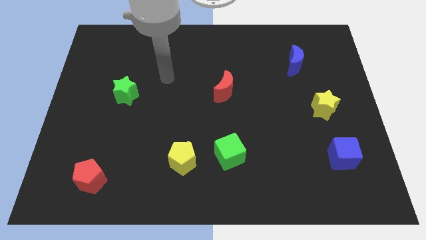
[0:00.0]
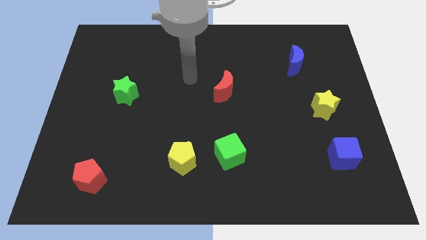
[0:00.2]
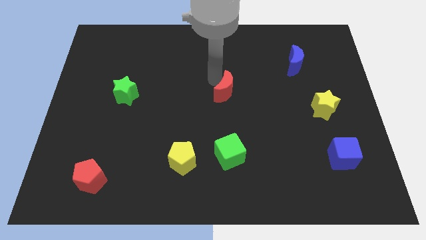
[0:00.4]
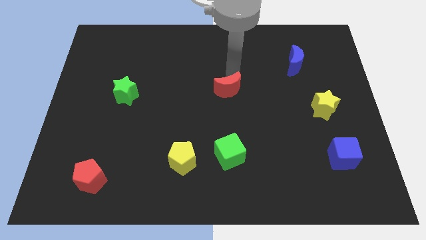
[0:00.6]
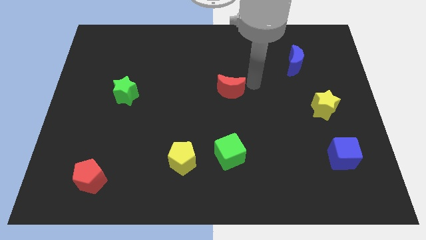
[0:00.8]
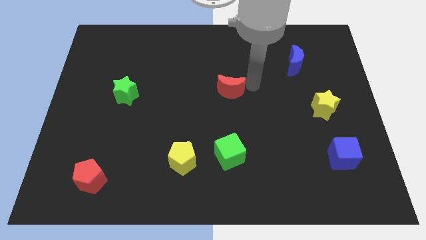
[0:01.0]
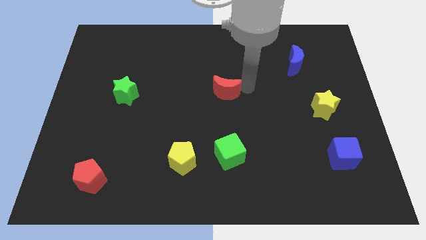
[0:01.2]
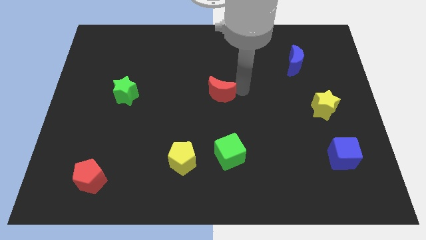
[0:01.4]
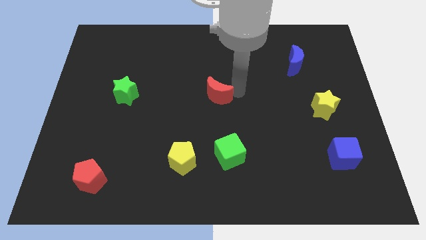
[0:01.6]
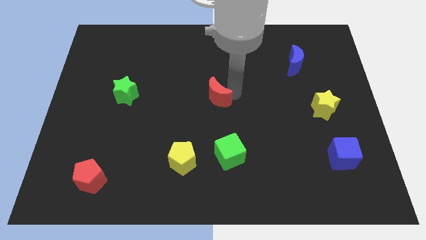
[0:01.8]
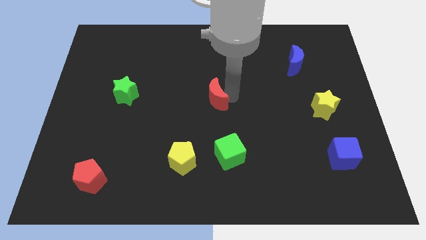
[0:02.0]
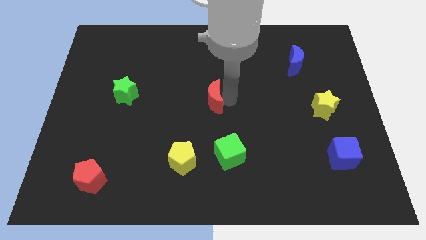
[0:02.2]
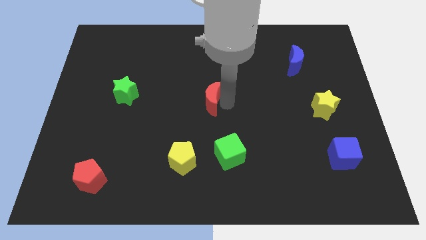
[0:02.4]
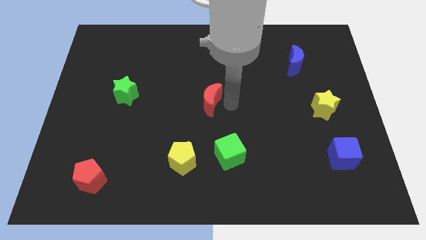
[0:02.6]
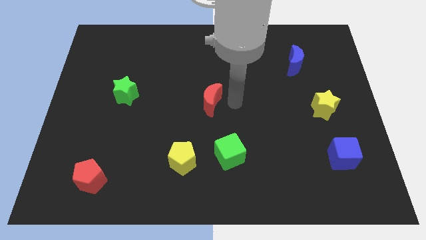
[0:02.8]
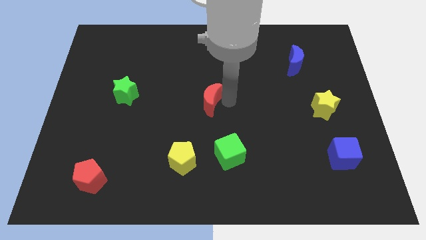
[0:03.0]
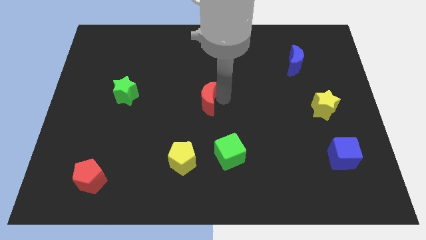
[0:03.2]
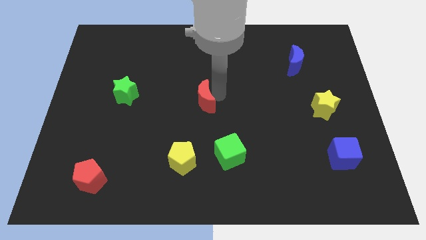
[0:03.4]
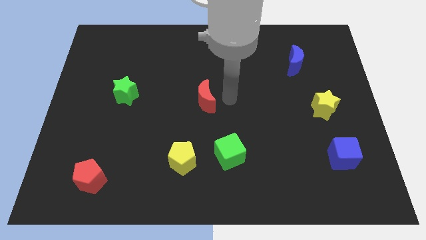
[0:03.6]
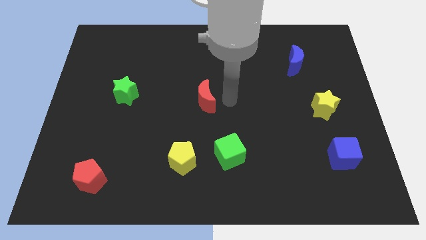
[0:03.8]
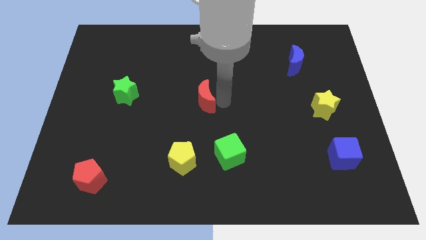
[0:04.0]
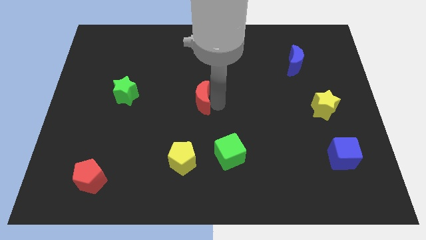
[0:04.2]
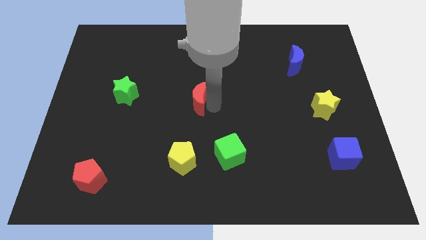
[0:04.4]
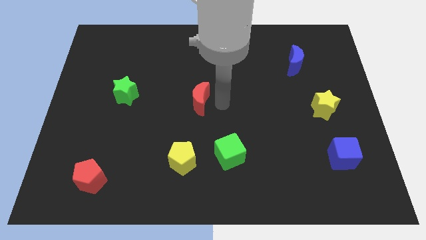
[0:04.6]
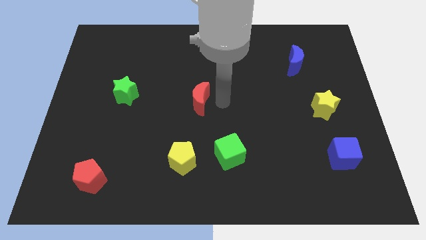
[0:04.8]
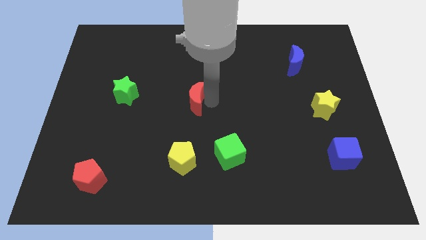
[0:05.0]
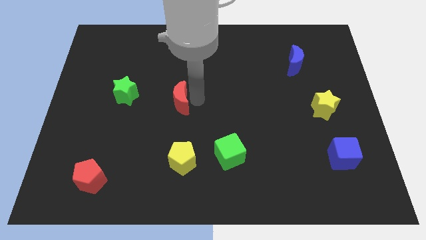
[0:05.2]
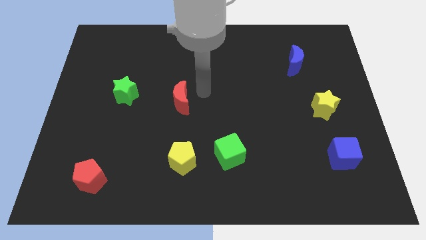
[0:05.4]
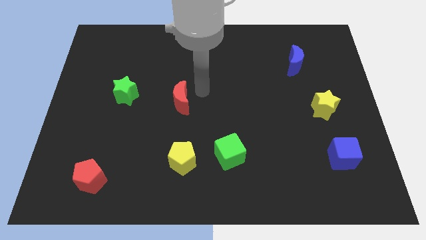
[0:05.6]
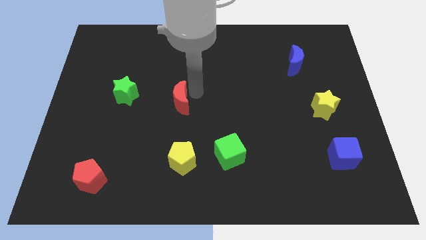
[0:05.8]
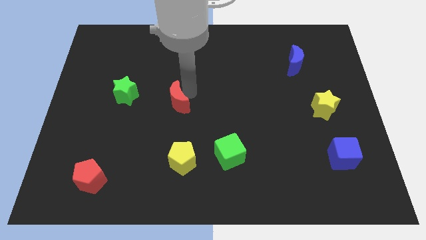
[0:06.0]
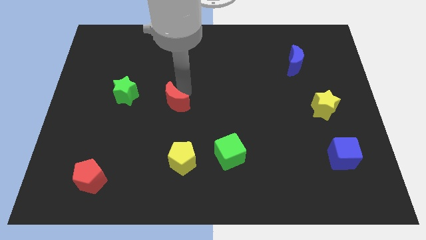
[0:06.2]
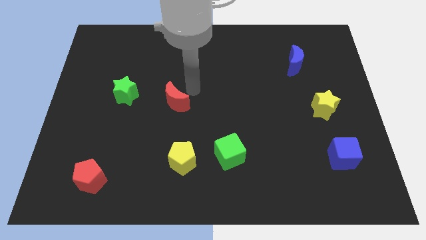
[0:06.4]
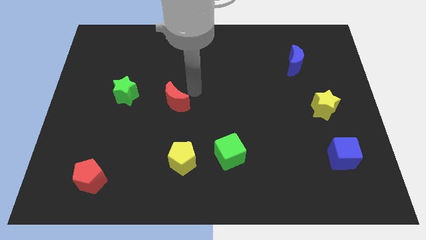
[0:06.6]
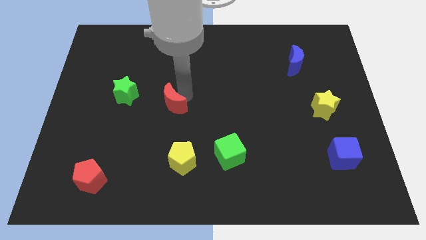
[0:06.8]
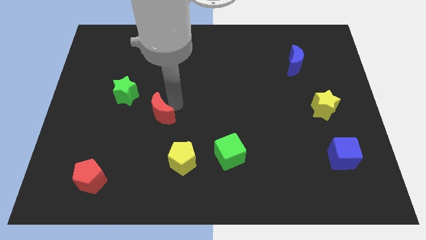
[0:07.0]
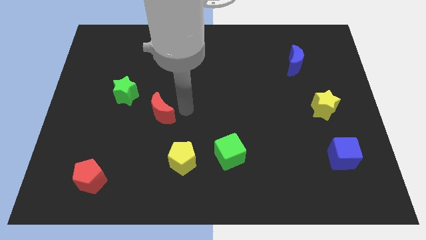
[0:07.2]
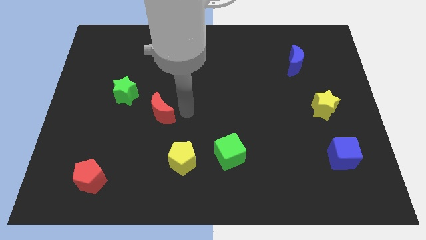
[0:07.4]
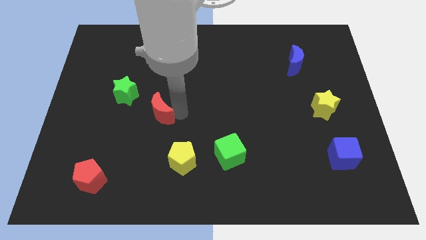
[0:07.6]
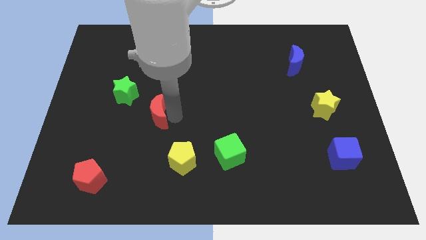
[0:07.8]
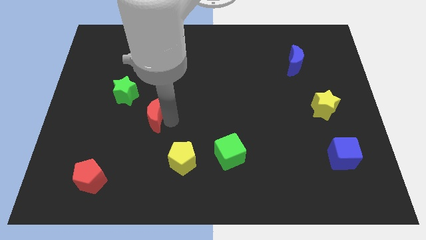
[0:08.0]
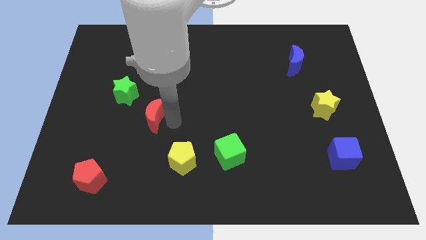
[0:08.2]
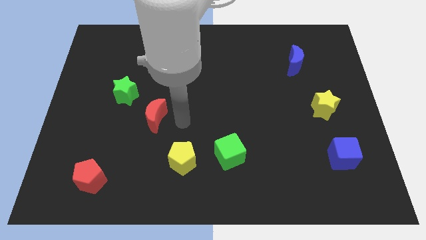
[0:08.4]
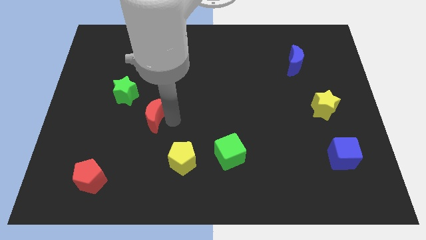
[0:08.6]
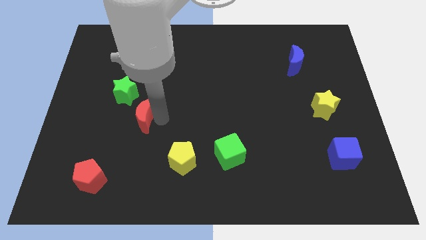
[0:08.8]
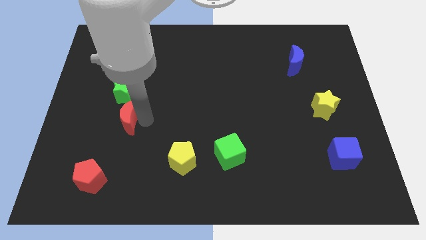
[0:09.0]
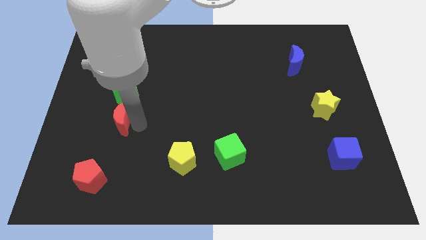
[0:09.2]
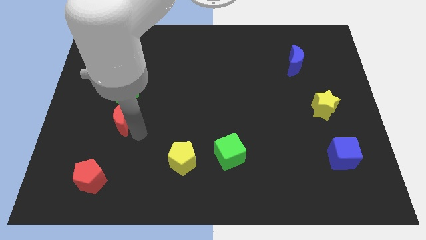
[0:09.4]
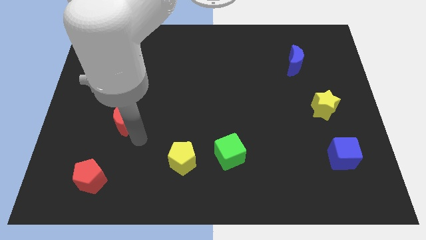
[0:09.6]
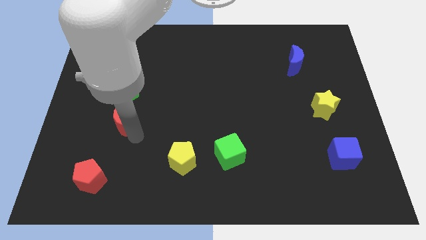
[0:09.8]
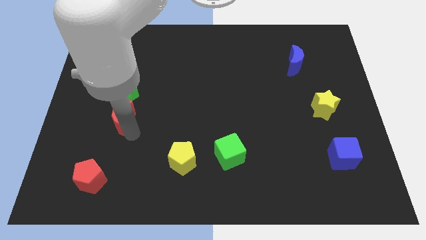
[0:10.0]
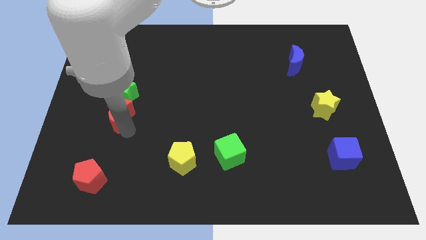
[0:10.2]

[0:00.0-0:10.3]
put the red moon to the bottom left of the green star
